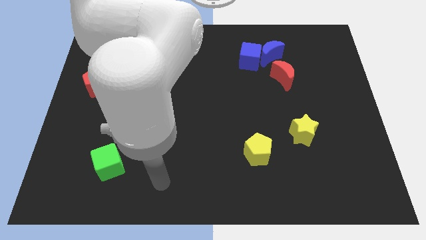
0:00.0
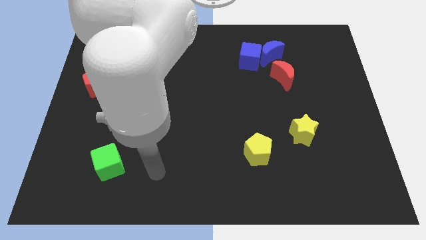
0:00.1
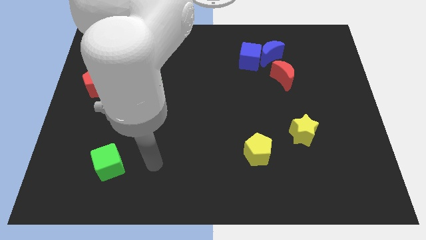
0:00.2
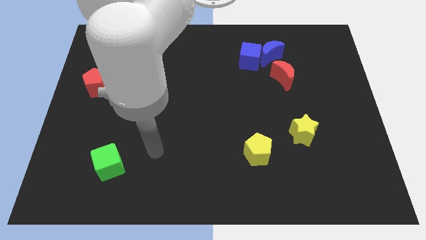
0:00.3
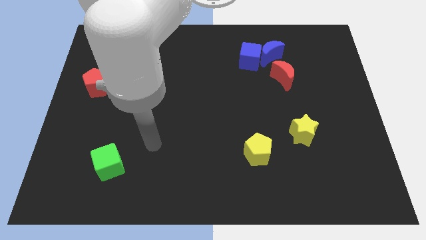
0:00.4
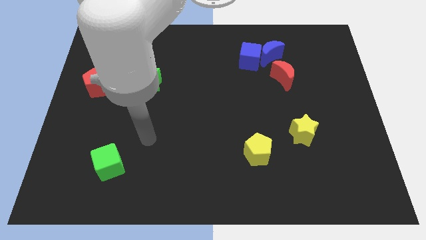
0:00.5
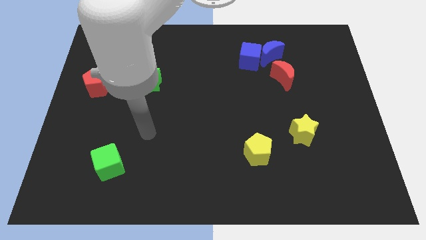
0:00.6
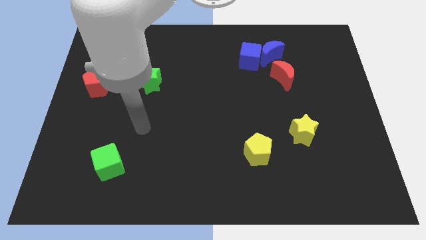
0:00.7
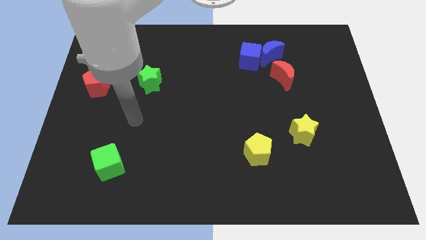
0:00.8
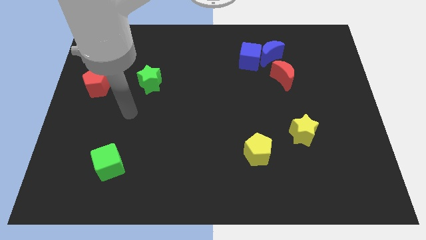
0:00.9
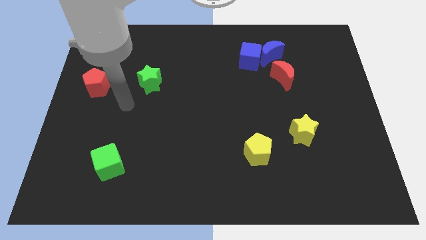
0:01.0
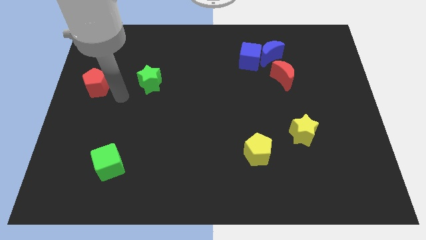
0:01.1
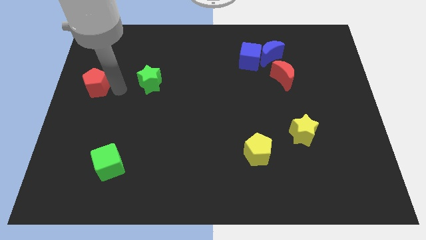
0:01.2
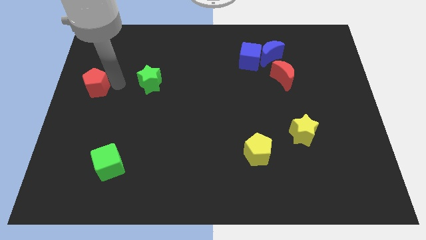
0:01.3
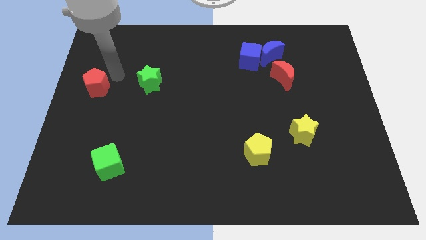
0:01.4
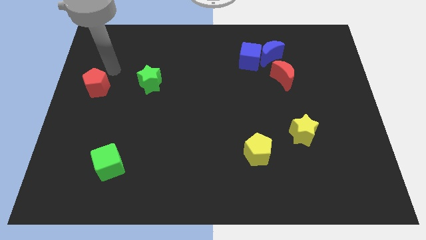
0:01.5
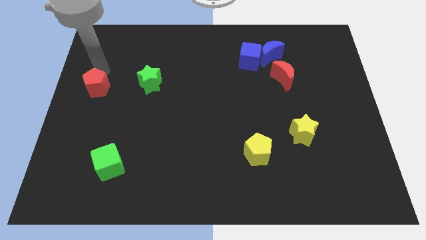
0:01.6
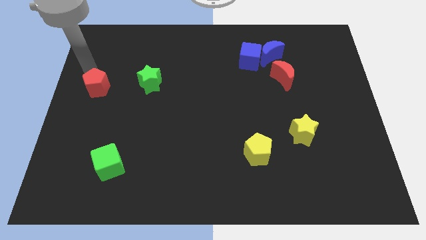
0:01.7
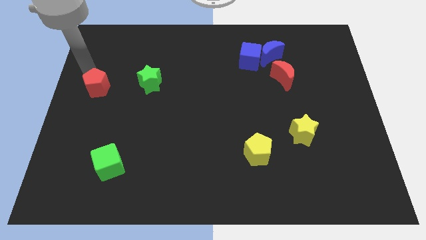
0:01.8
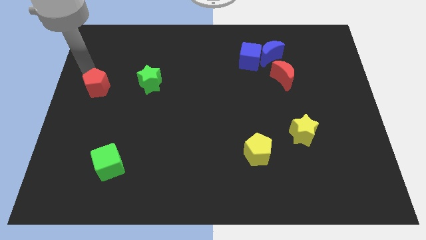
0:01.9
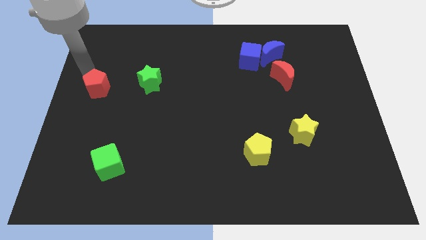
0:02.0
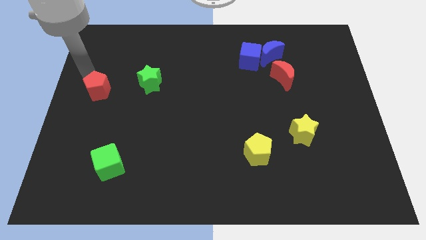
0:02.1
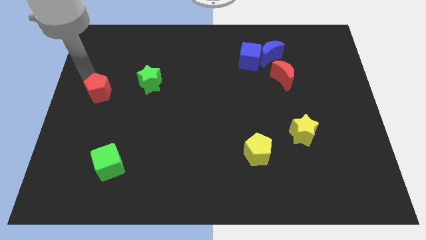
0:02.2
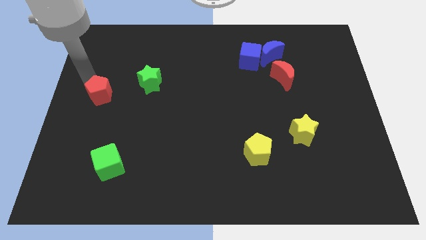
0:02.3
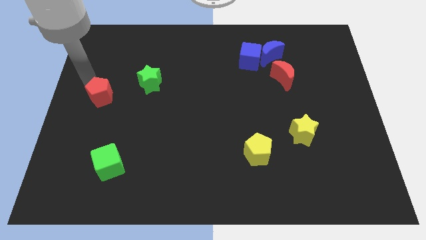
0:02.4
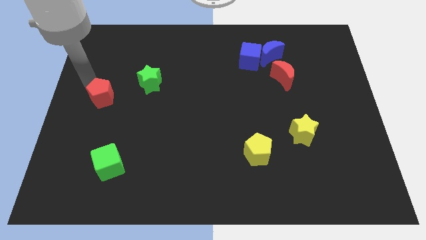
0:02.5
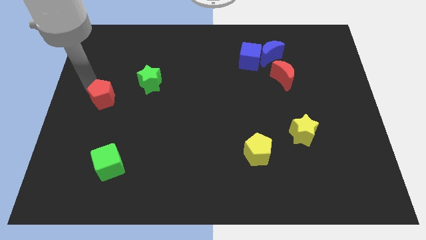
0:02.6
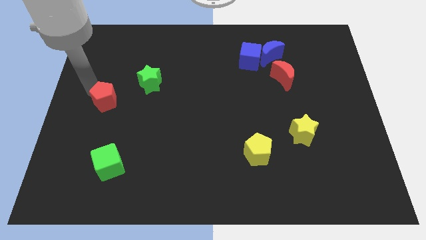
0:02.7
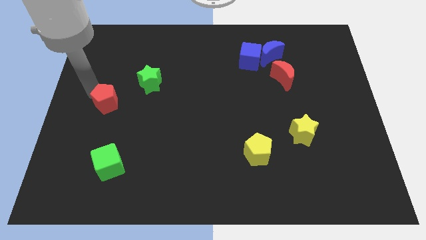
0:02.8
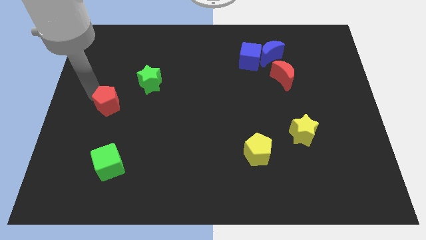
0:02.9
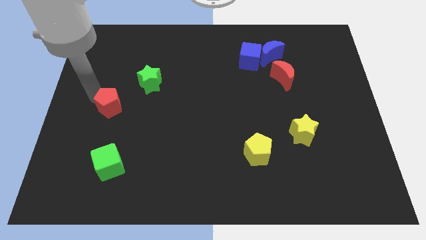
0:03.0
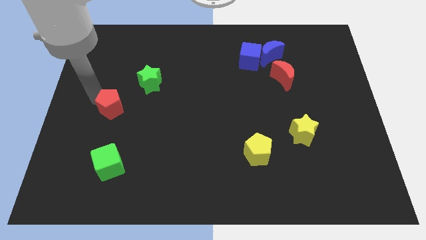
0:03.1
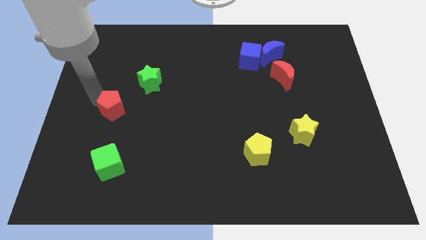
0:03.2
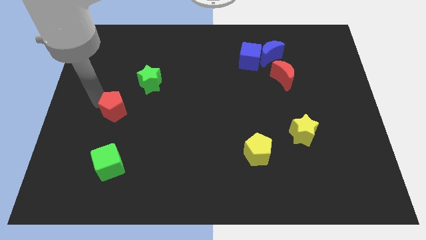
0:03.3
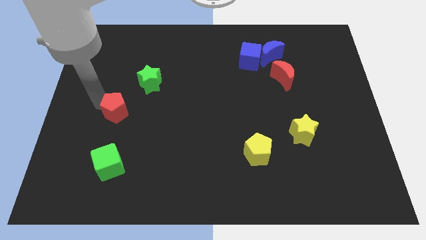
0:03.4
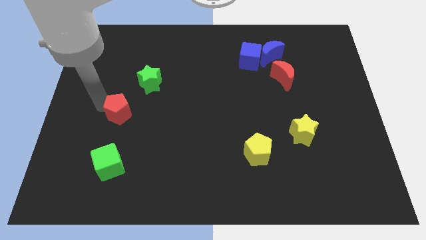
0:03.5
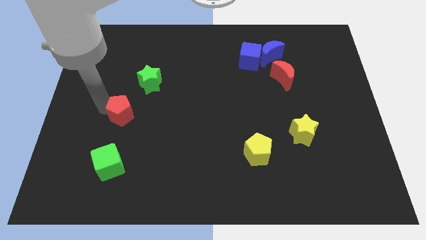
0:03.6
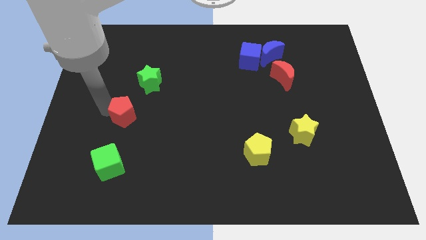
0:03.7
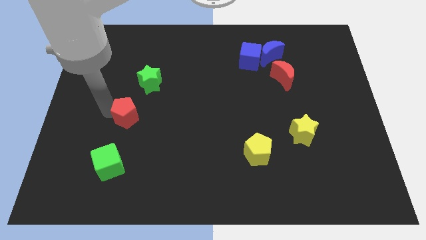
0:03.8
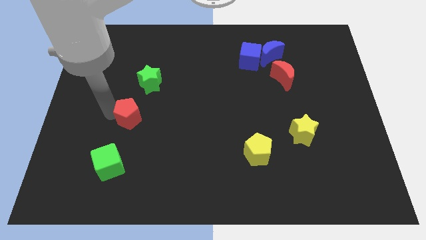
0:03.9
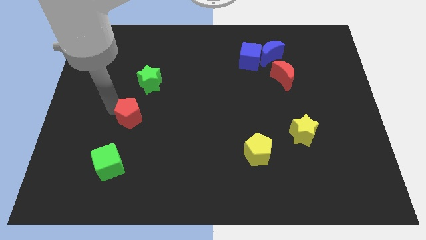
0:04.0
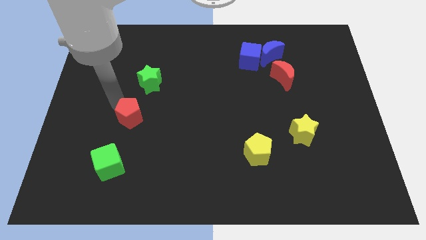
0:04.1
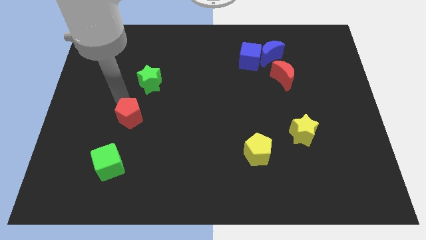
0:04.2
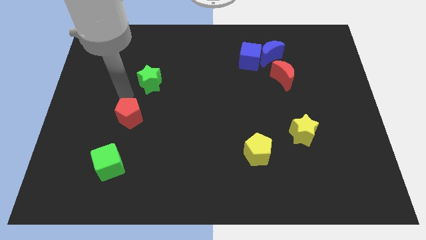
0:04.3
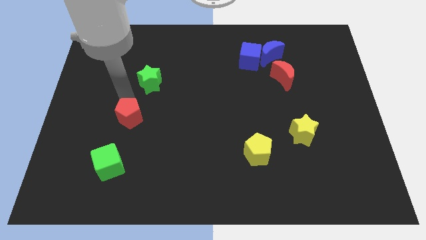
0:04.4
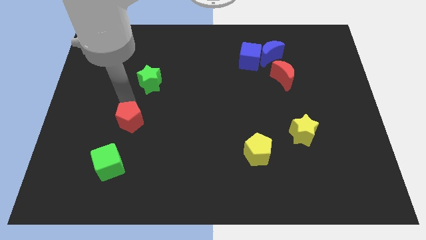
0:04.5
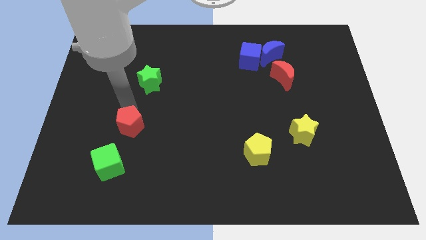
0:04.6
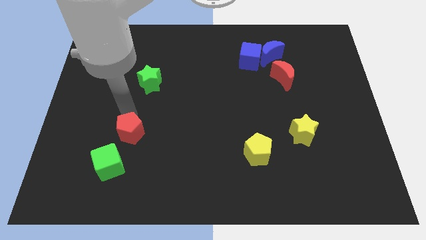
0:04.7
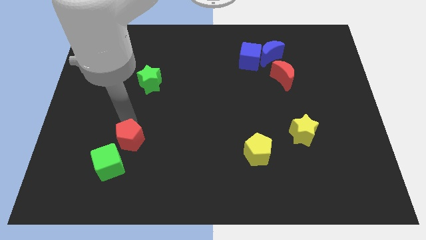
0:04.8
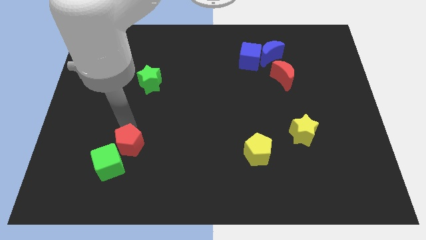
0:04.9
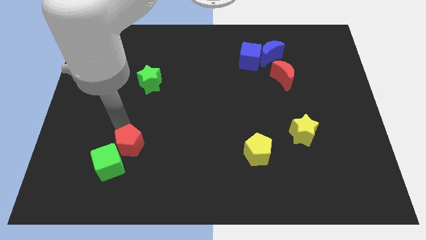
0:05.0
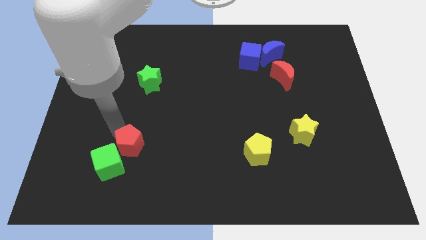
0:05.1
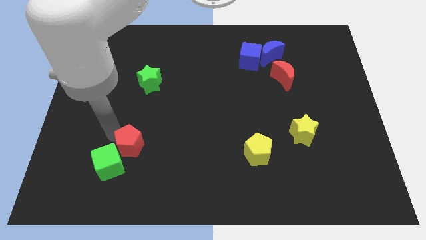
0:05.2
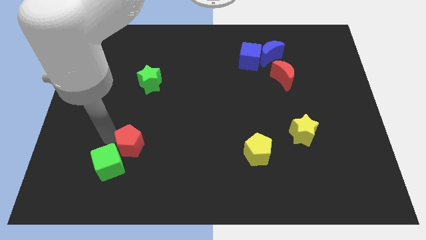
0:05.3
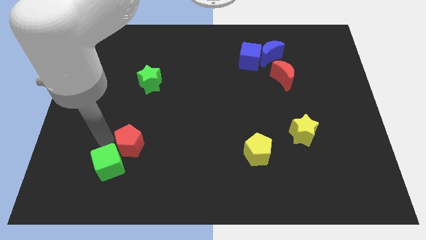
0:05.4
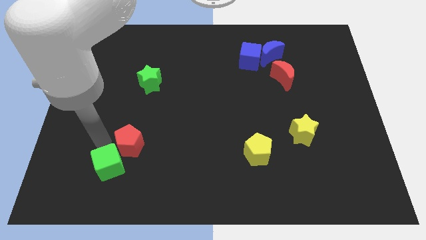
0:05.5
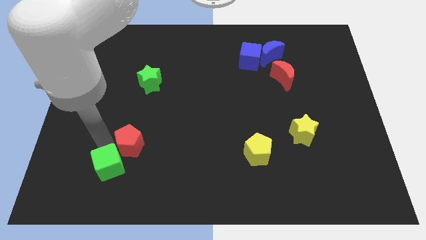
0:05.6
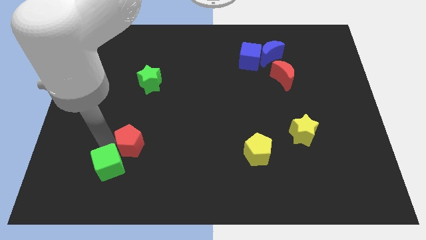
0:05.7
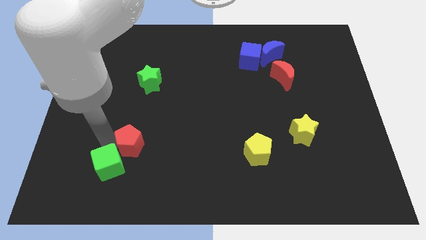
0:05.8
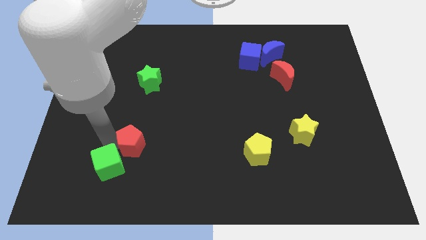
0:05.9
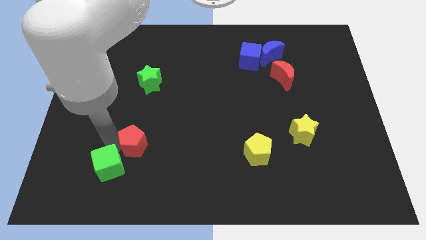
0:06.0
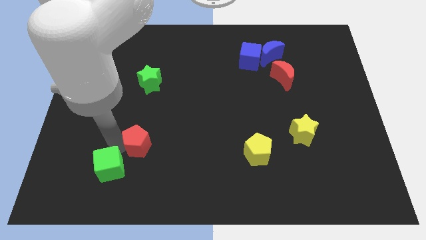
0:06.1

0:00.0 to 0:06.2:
slide the red pentagon down and to the right

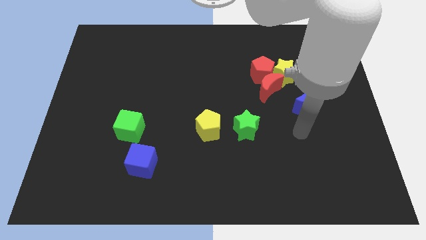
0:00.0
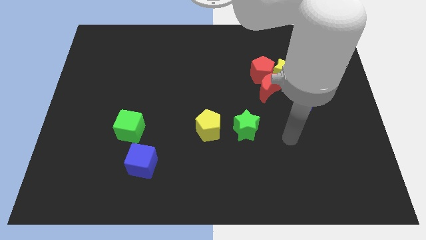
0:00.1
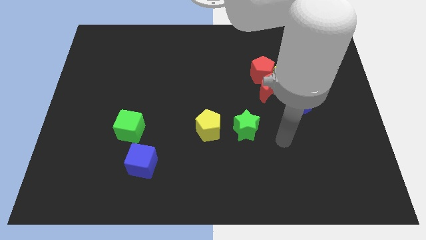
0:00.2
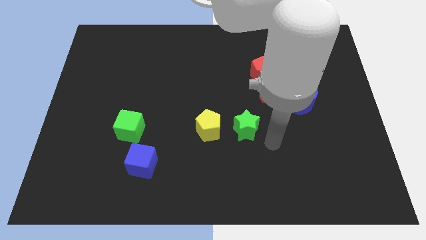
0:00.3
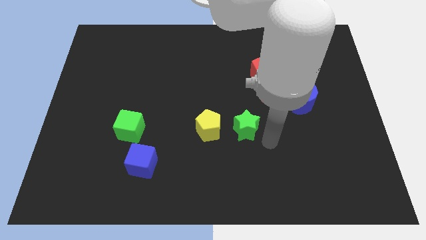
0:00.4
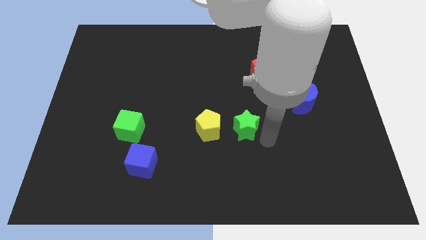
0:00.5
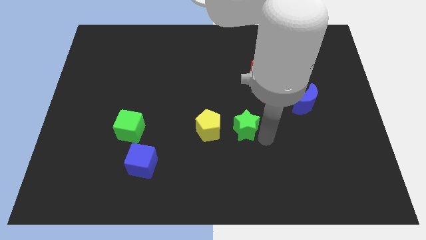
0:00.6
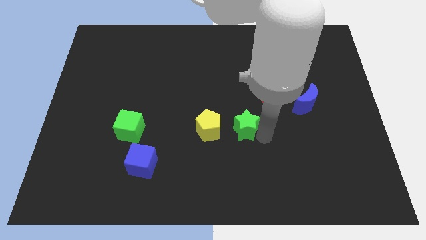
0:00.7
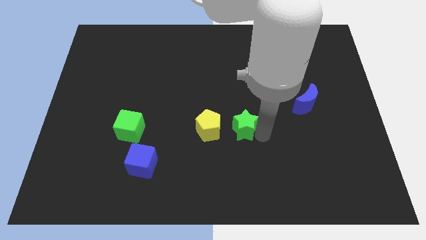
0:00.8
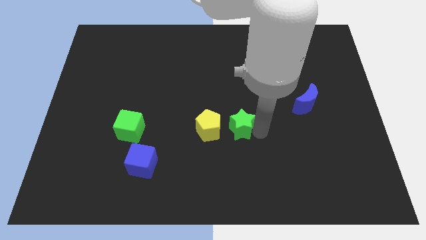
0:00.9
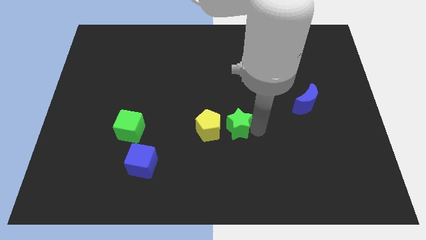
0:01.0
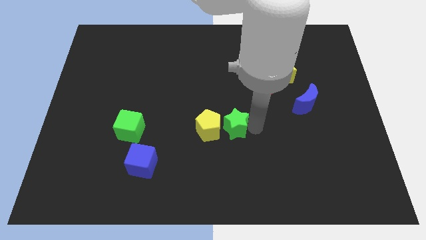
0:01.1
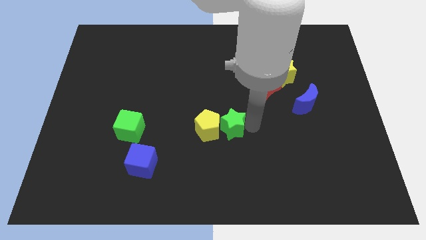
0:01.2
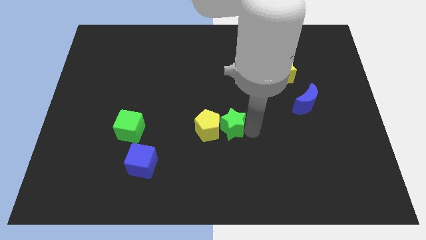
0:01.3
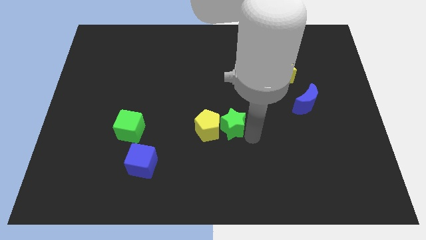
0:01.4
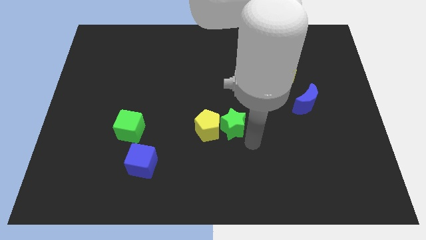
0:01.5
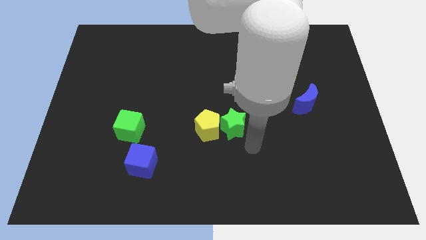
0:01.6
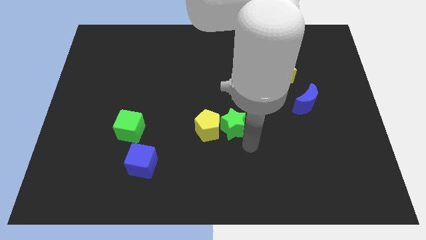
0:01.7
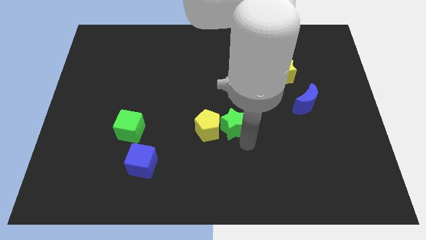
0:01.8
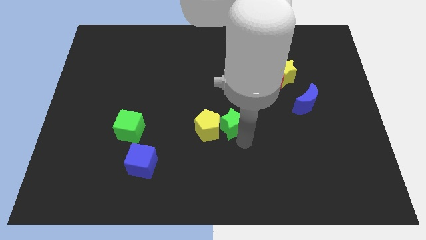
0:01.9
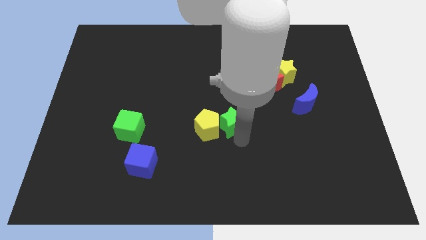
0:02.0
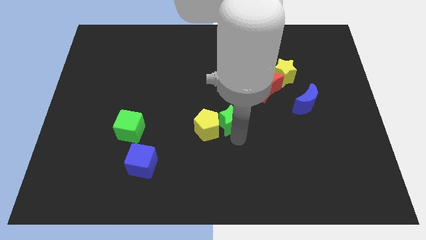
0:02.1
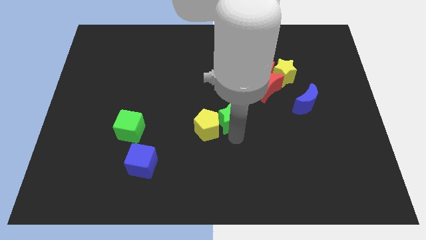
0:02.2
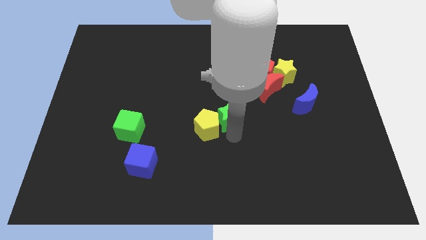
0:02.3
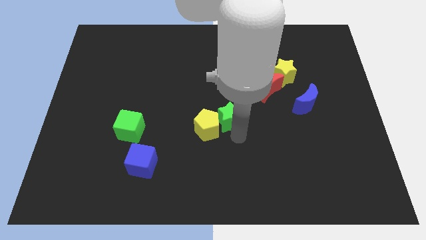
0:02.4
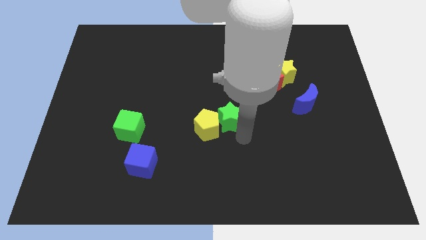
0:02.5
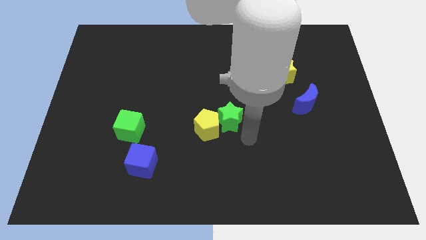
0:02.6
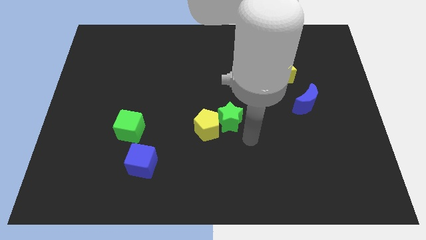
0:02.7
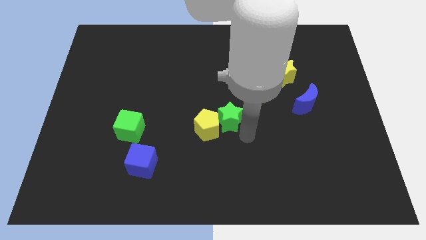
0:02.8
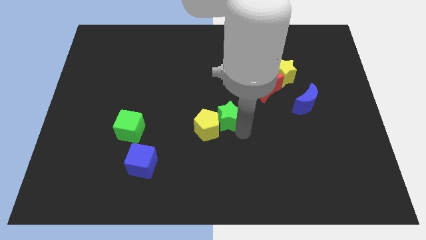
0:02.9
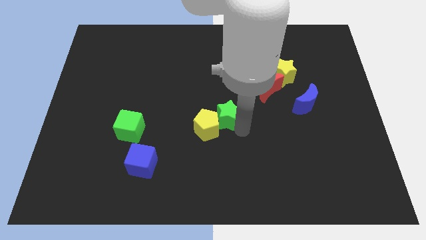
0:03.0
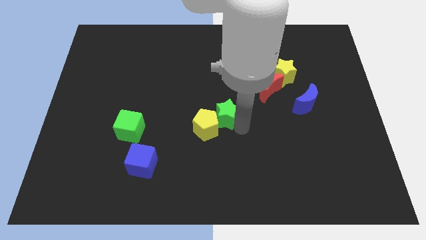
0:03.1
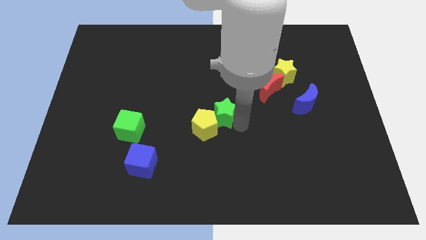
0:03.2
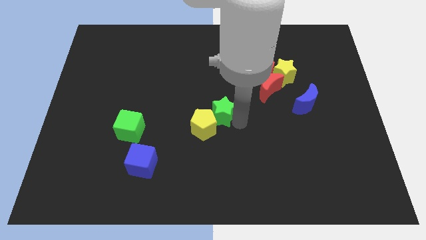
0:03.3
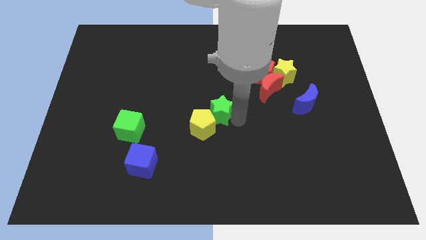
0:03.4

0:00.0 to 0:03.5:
slide the green star a bit diagonally up and left
